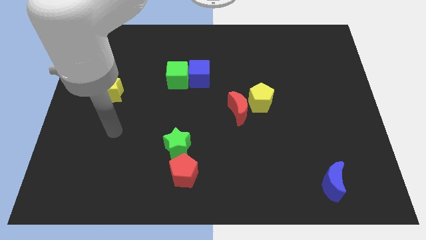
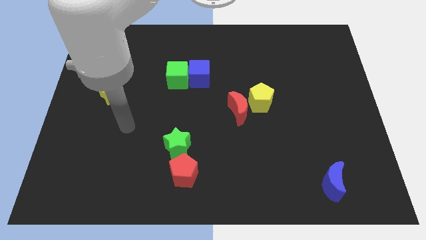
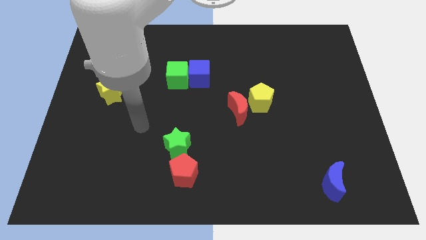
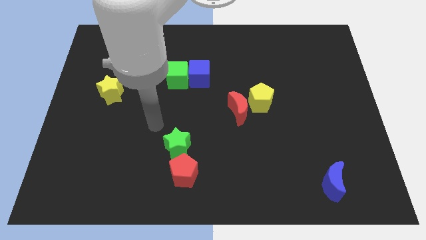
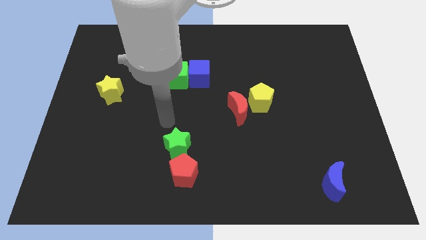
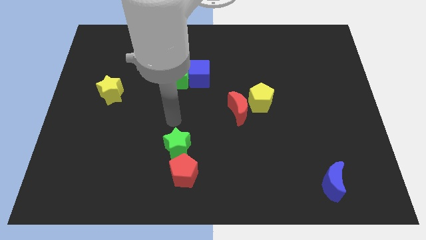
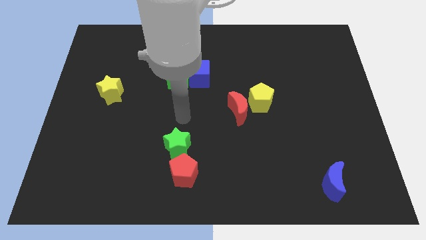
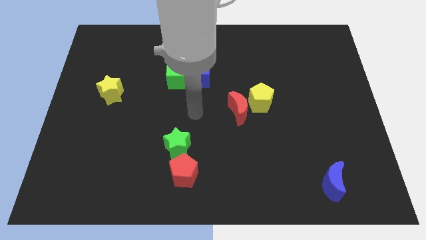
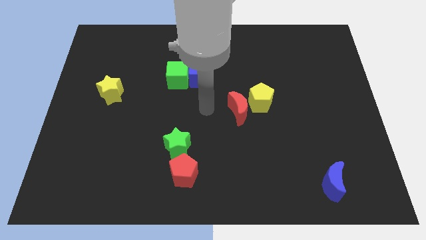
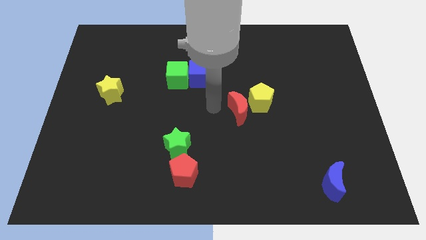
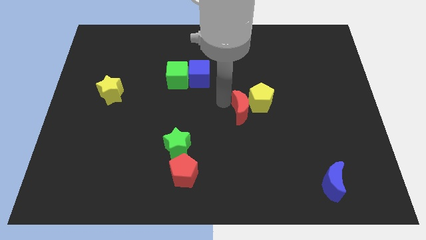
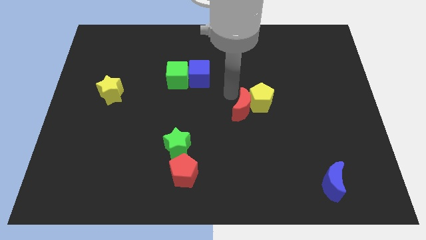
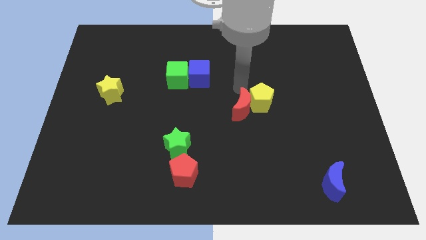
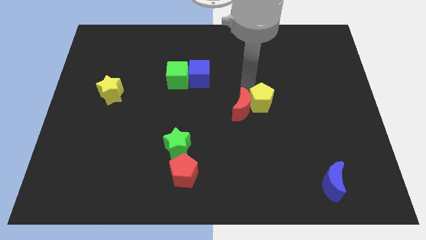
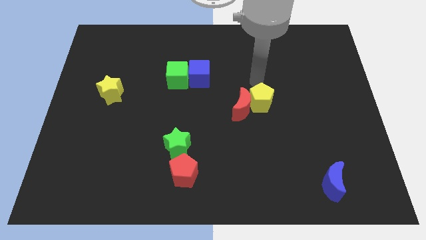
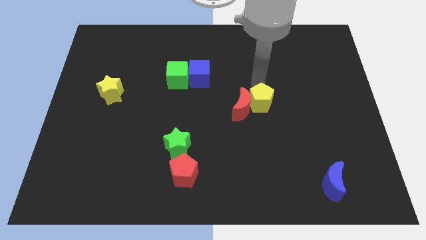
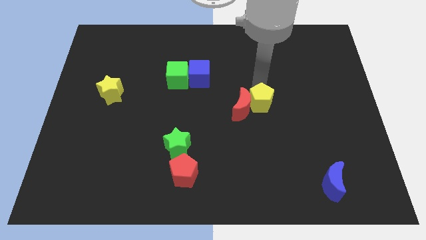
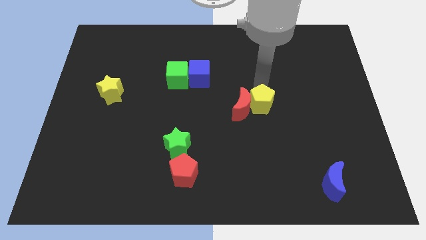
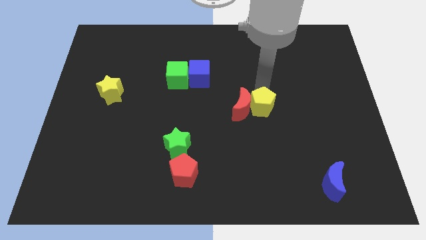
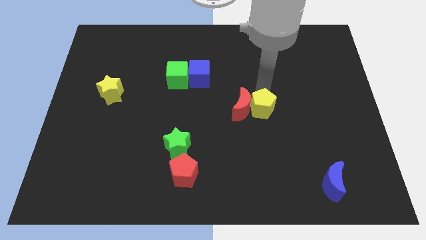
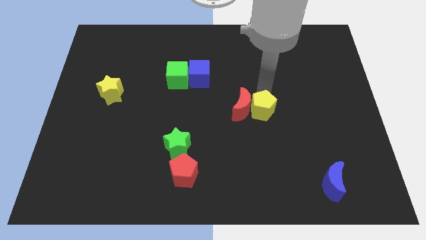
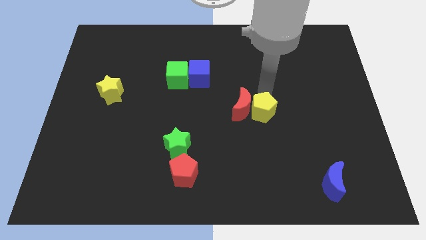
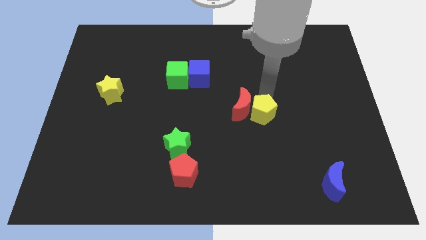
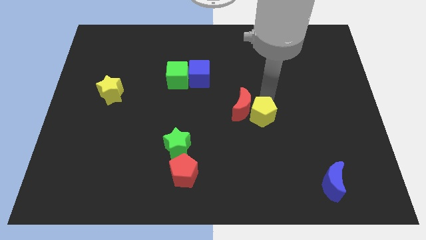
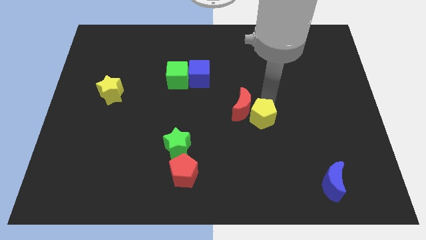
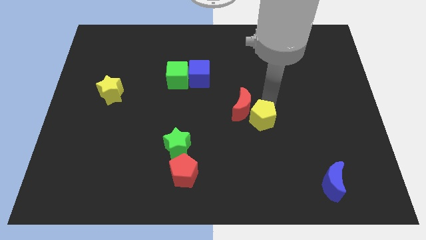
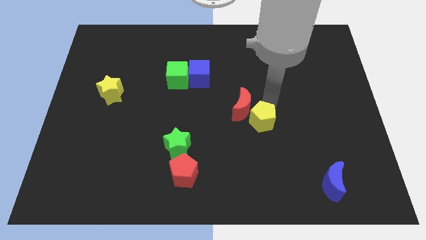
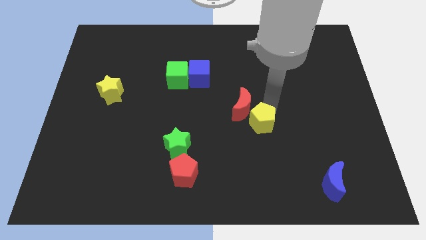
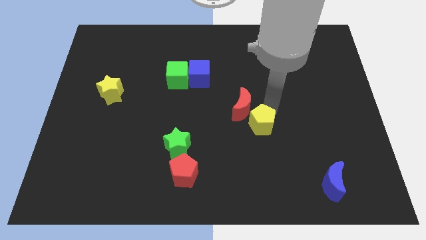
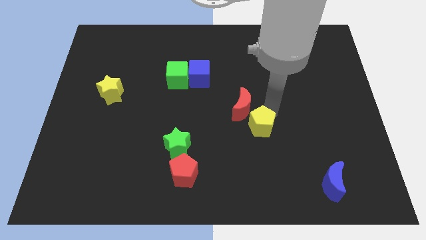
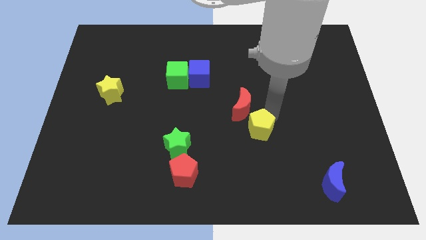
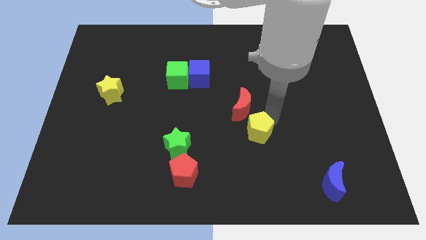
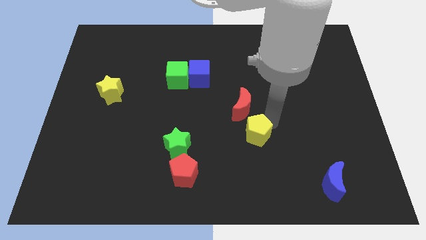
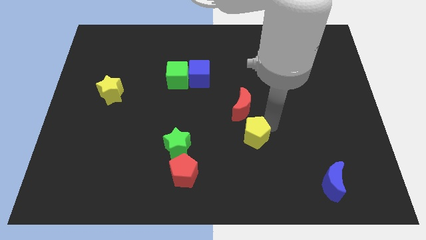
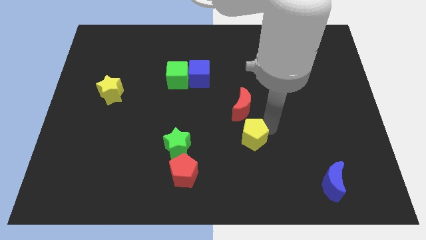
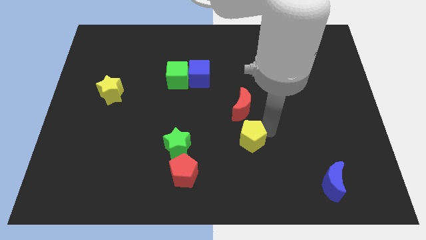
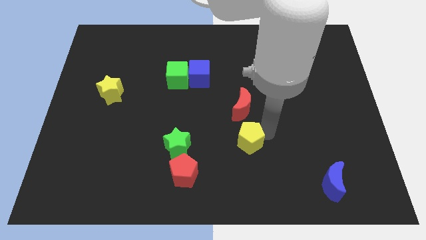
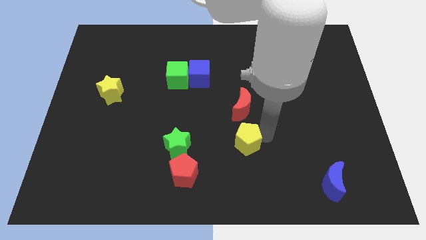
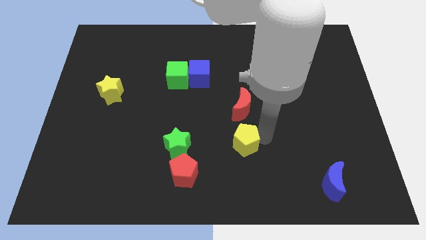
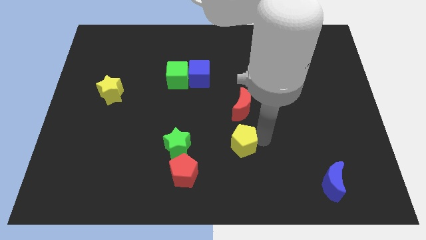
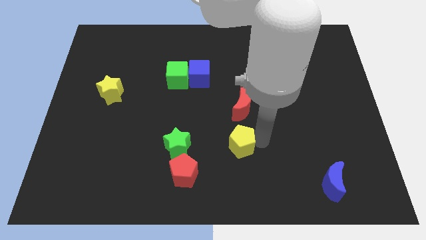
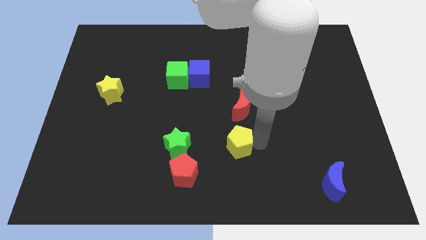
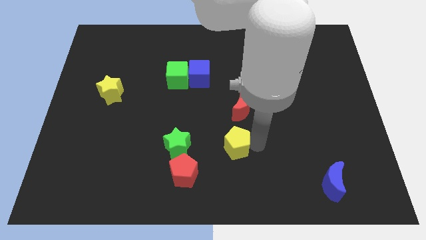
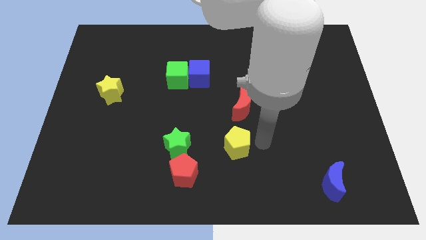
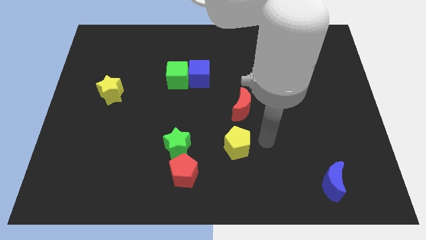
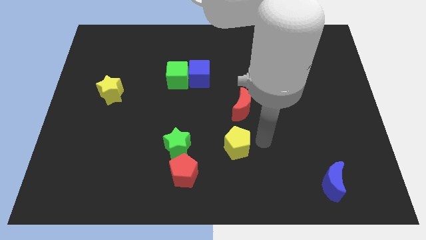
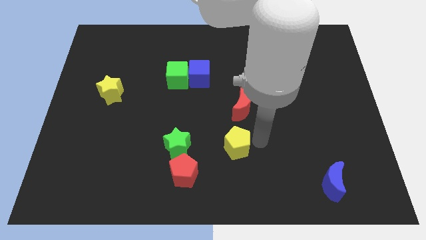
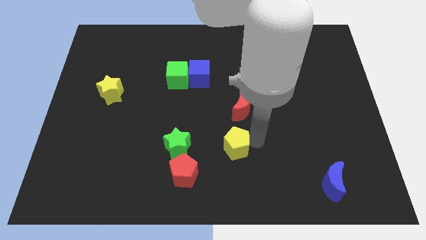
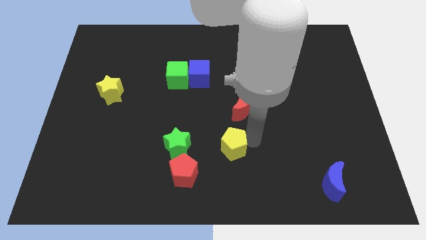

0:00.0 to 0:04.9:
push the yellow pentagon to the top right of the red pentagon

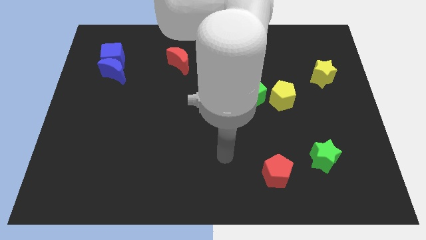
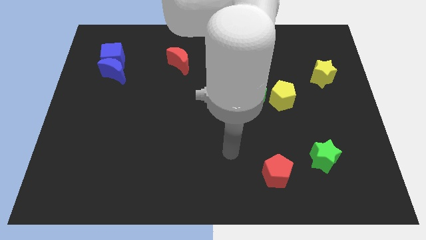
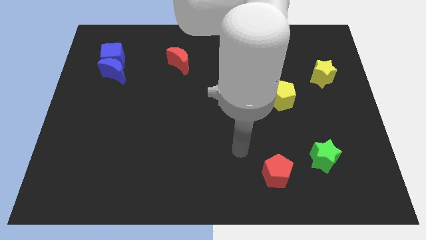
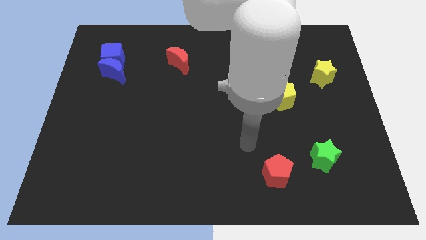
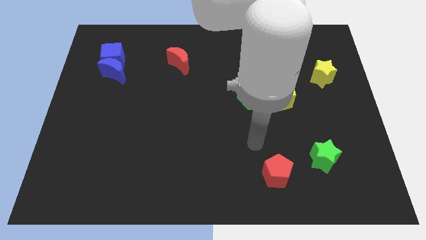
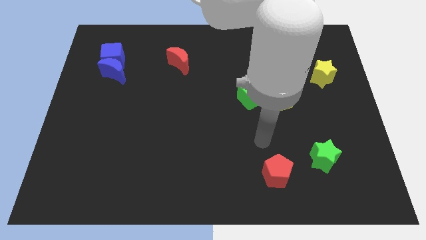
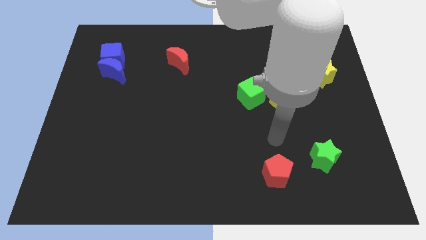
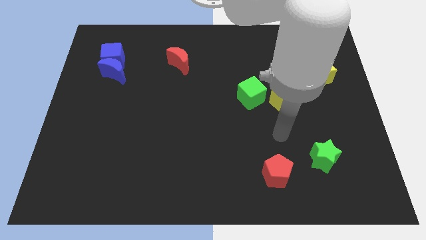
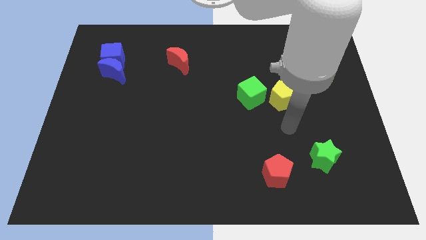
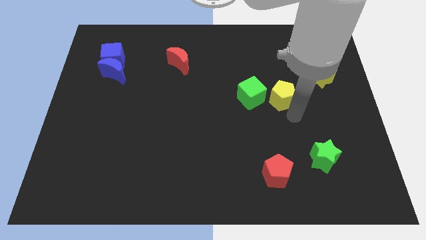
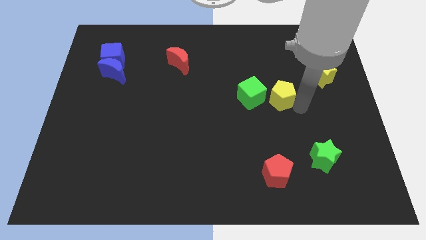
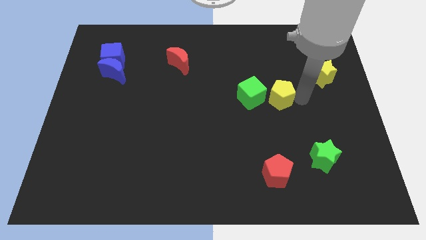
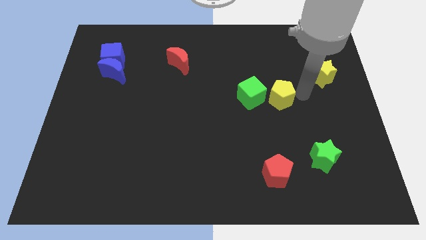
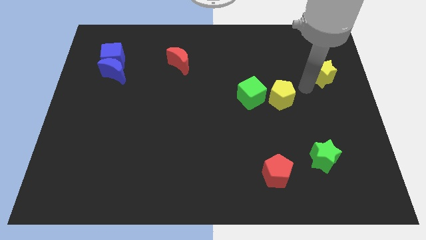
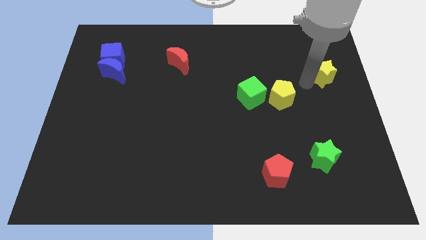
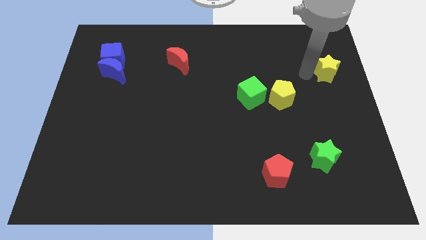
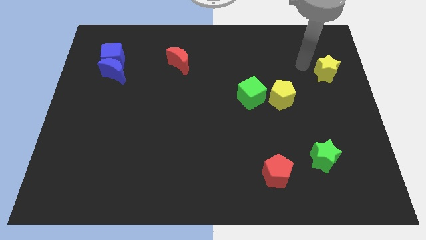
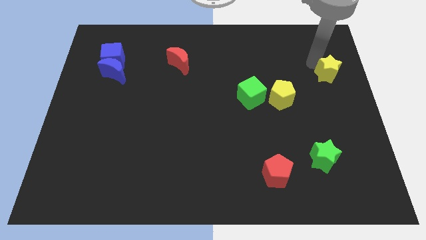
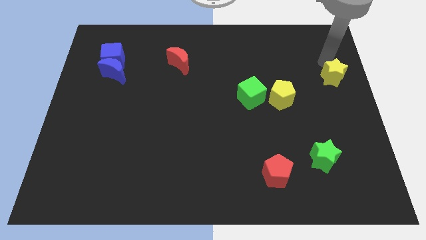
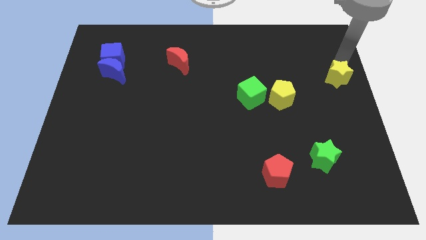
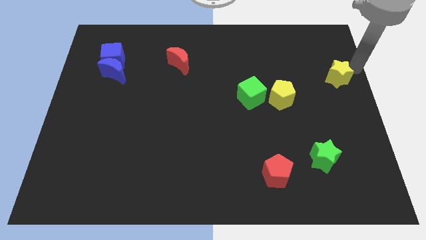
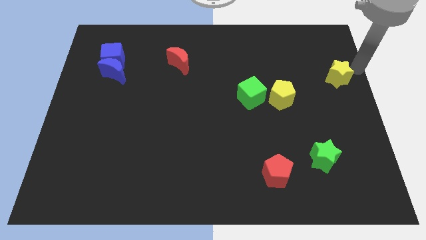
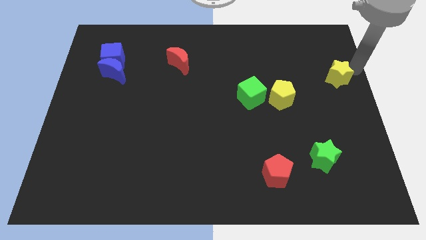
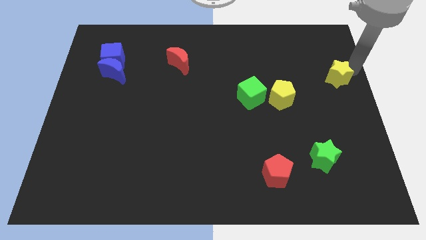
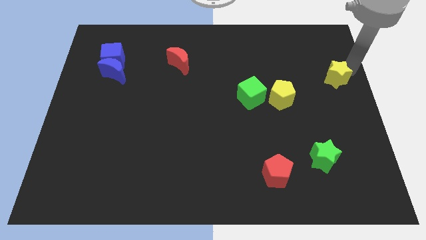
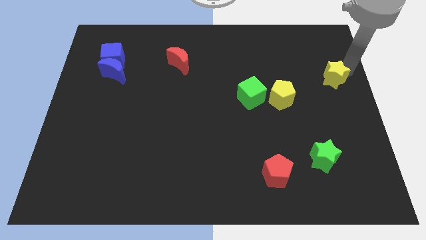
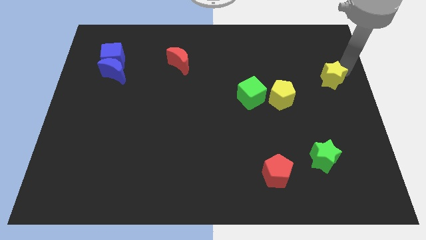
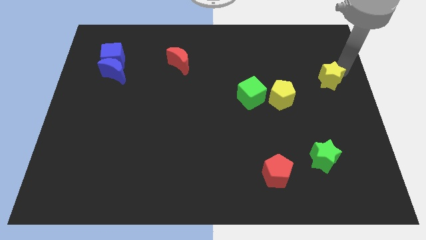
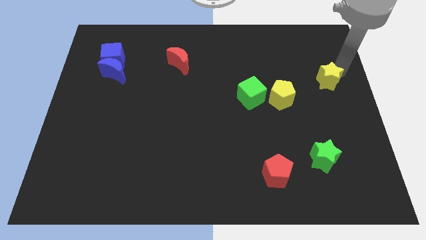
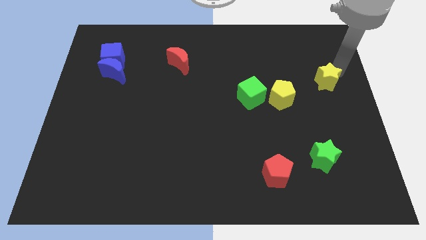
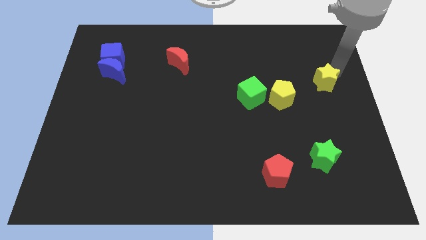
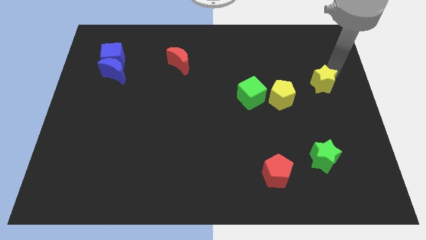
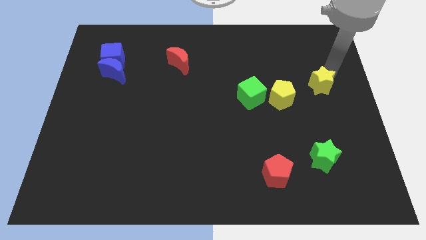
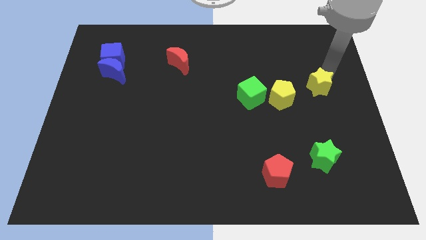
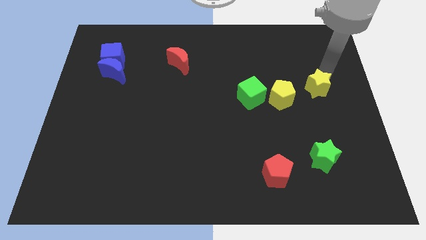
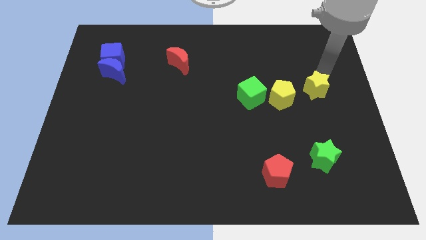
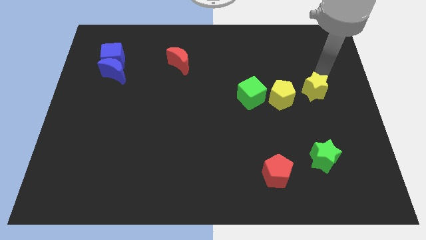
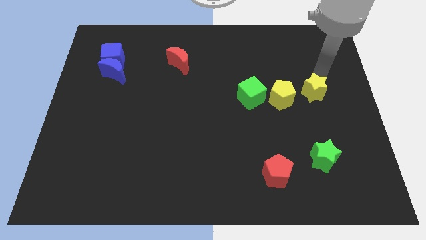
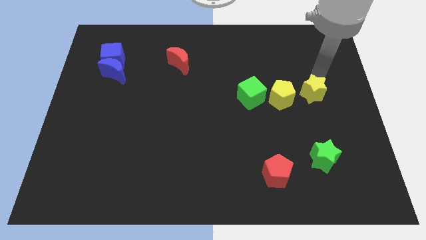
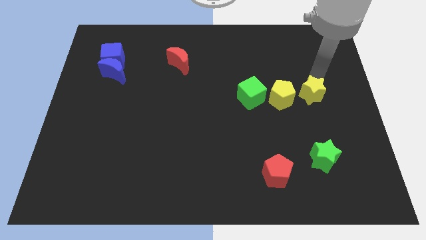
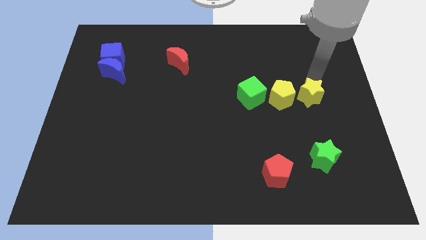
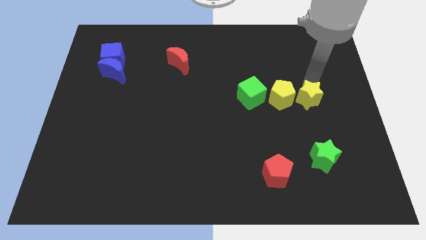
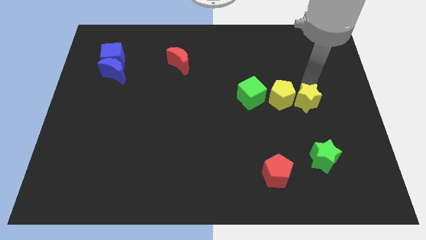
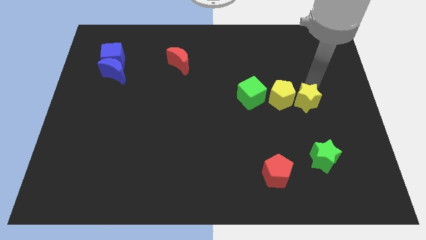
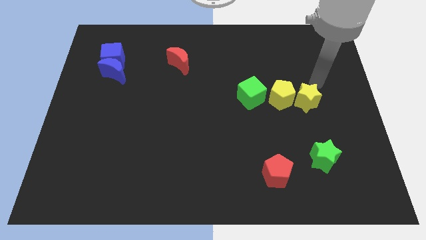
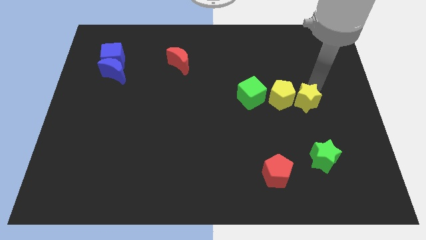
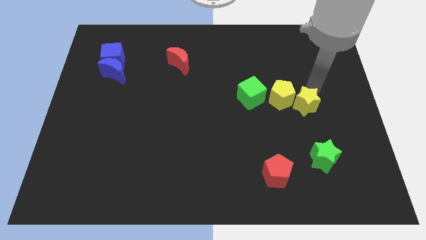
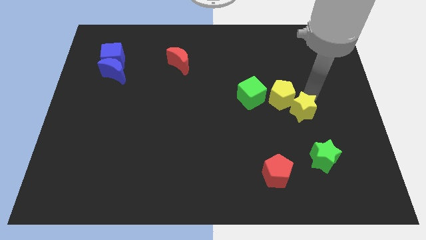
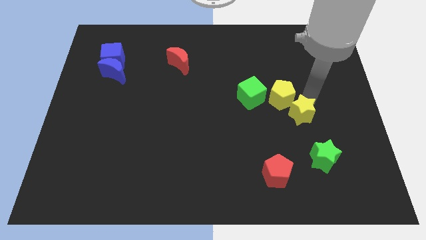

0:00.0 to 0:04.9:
put the yellow star to the bottom of the yellow pentagon
